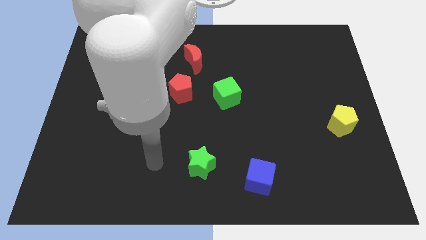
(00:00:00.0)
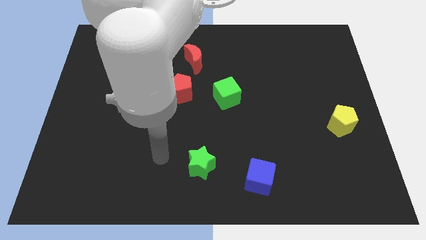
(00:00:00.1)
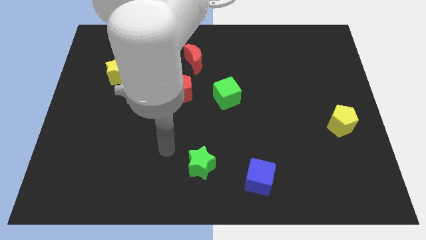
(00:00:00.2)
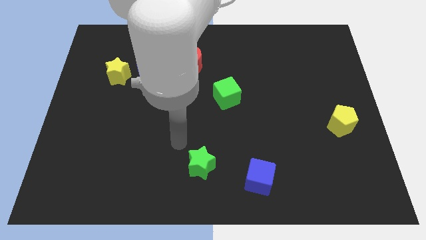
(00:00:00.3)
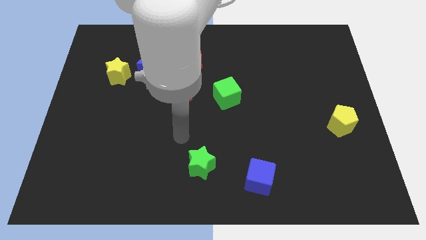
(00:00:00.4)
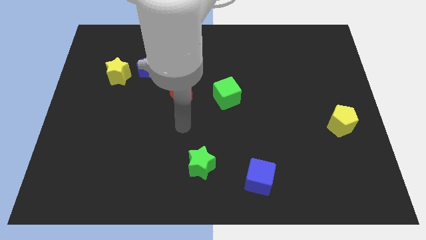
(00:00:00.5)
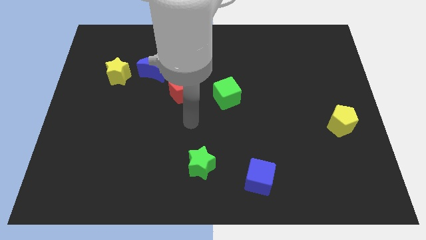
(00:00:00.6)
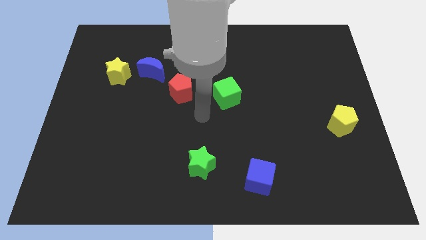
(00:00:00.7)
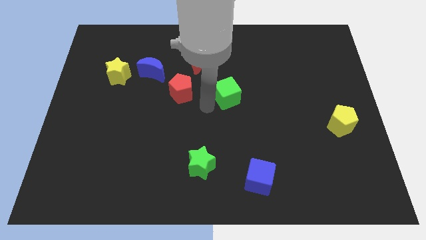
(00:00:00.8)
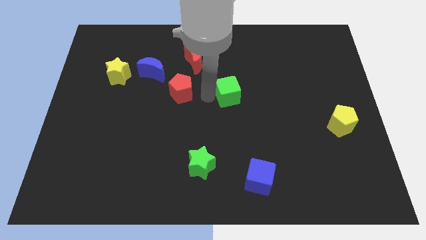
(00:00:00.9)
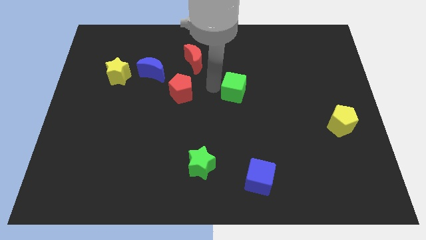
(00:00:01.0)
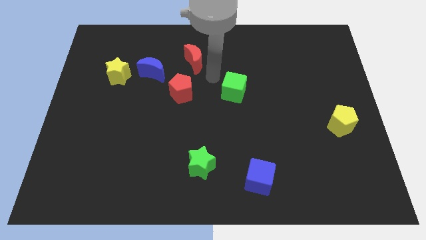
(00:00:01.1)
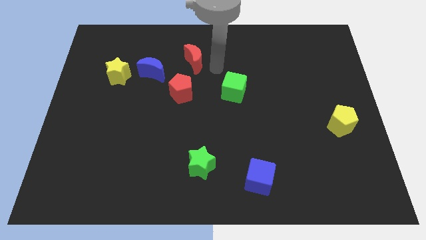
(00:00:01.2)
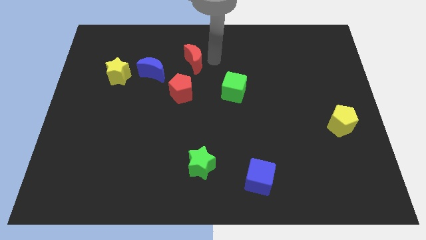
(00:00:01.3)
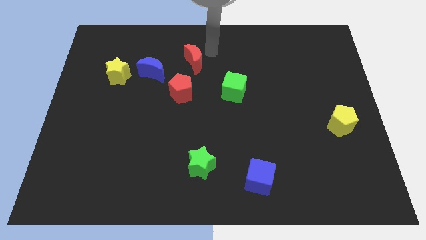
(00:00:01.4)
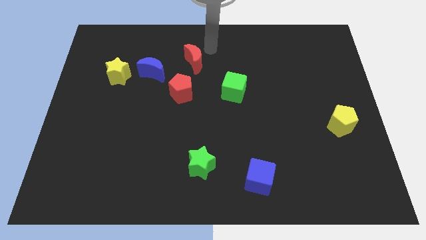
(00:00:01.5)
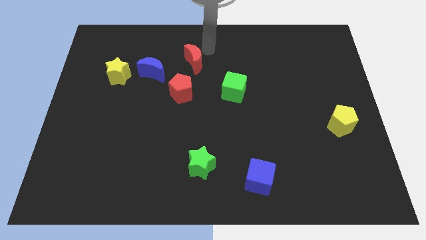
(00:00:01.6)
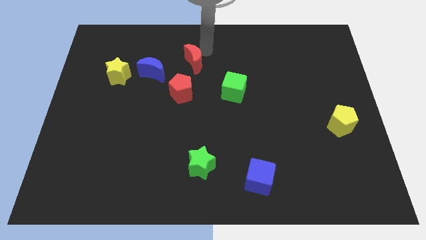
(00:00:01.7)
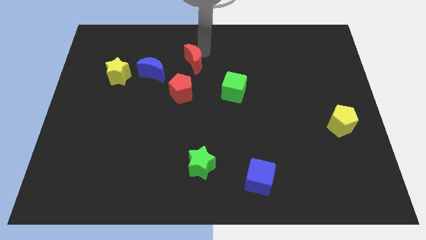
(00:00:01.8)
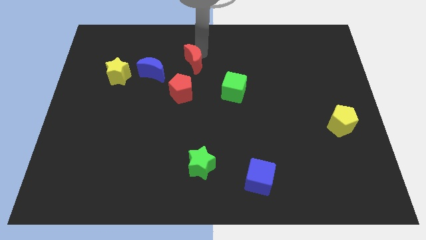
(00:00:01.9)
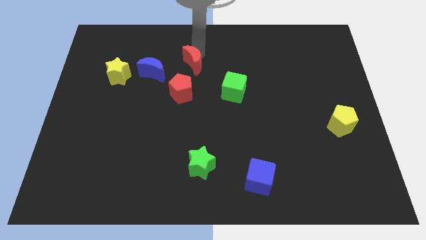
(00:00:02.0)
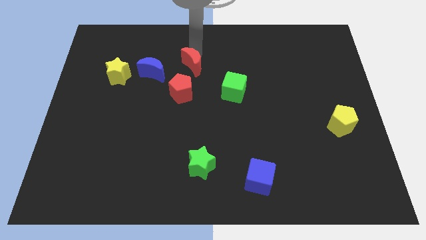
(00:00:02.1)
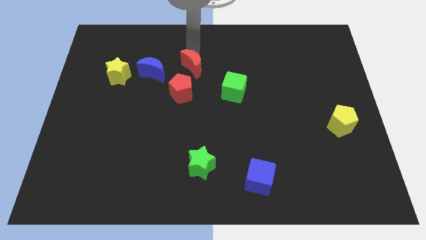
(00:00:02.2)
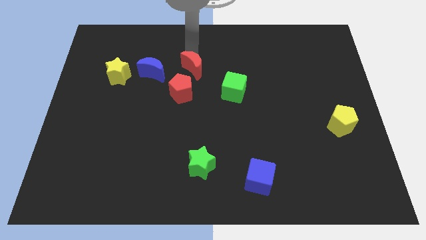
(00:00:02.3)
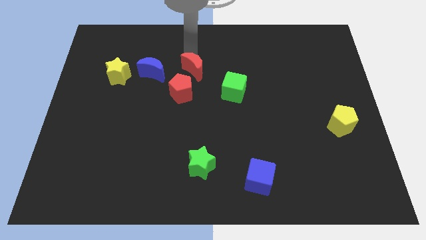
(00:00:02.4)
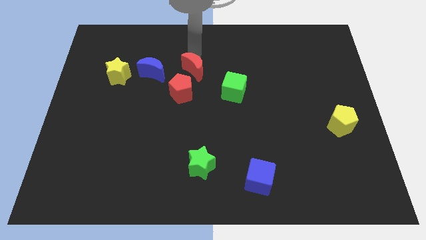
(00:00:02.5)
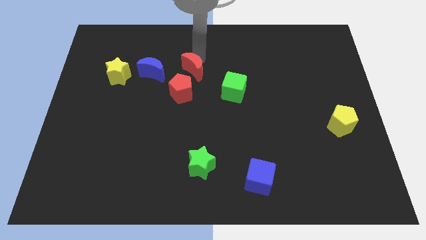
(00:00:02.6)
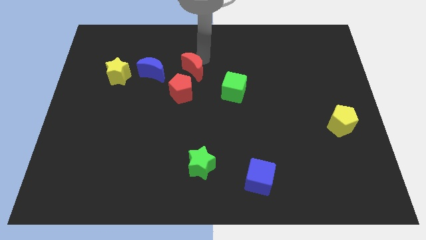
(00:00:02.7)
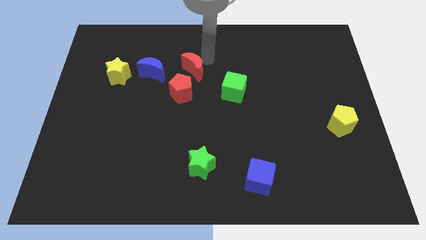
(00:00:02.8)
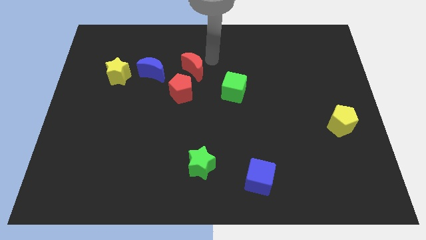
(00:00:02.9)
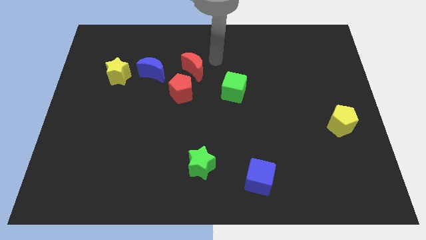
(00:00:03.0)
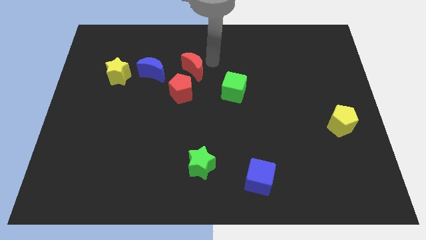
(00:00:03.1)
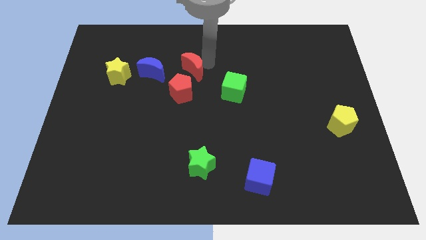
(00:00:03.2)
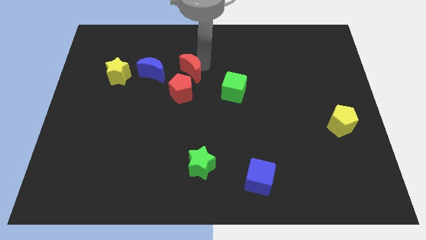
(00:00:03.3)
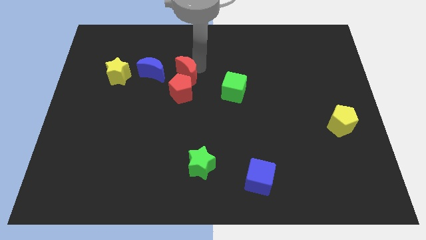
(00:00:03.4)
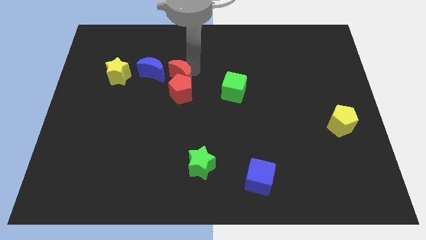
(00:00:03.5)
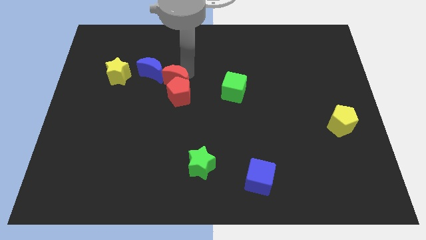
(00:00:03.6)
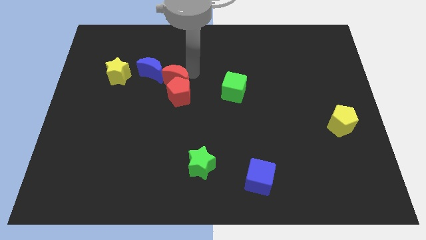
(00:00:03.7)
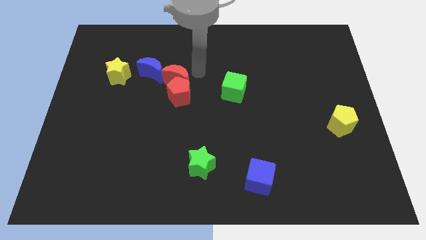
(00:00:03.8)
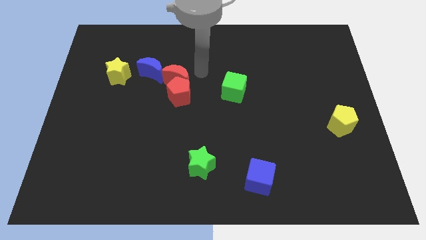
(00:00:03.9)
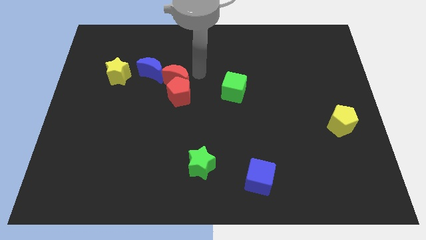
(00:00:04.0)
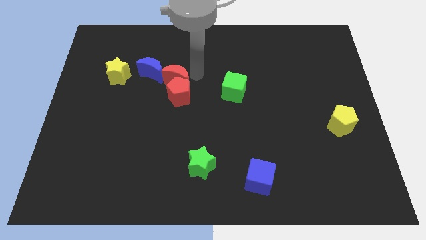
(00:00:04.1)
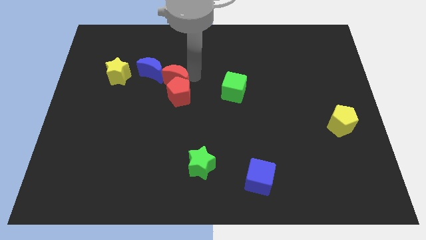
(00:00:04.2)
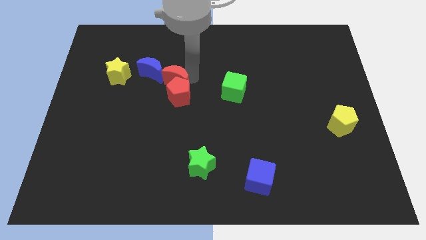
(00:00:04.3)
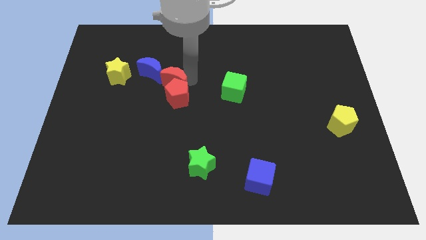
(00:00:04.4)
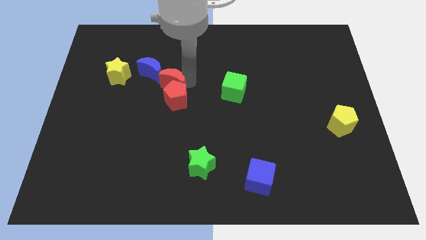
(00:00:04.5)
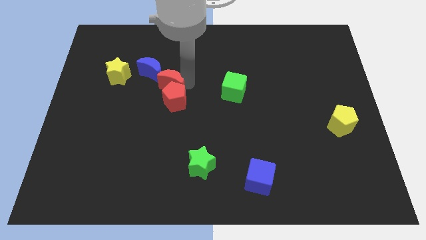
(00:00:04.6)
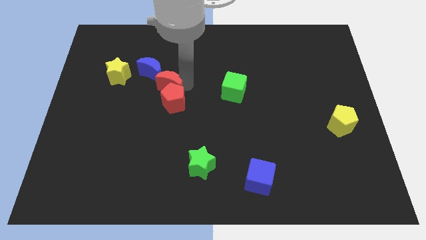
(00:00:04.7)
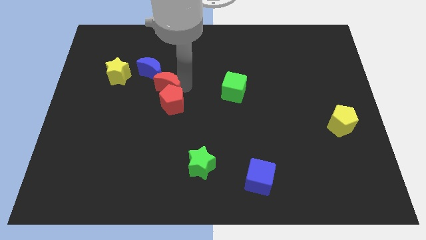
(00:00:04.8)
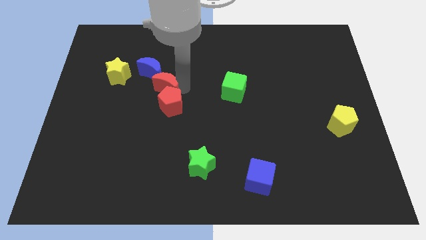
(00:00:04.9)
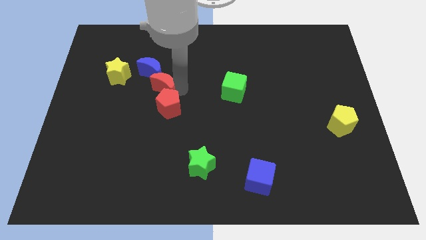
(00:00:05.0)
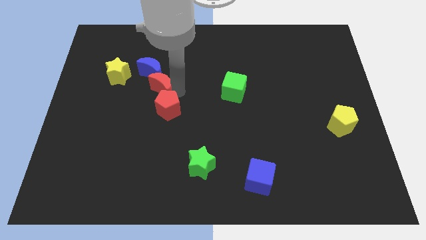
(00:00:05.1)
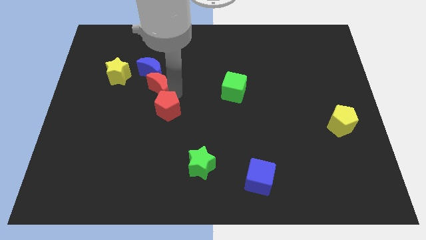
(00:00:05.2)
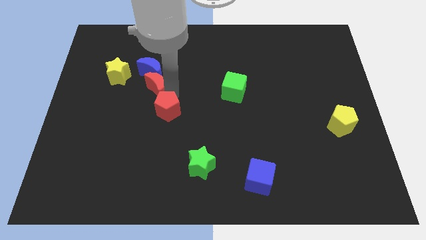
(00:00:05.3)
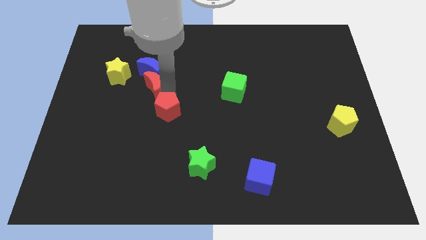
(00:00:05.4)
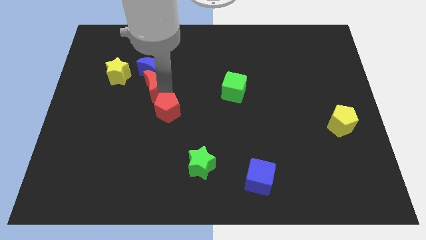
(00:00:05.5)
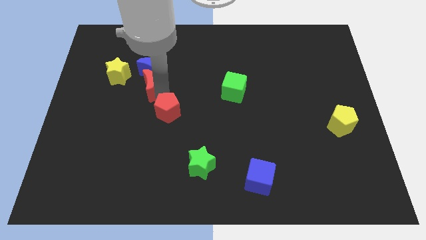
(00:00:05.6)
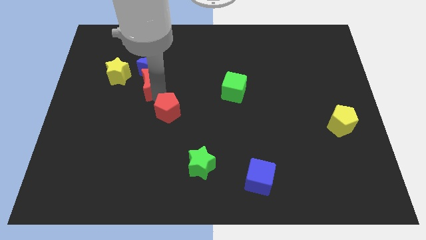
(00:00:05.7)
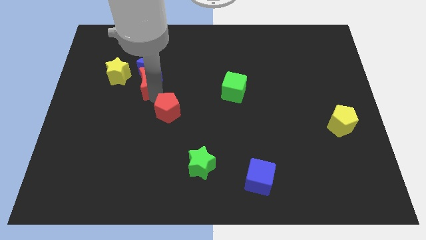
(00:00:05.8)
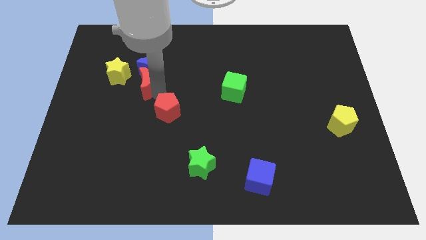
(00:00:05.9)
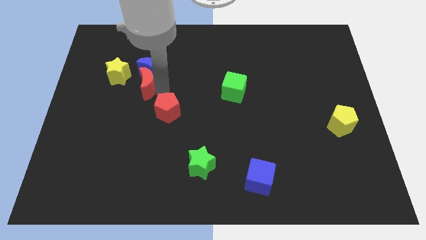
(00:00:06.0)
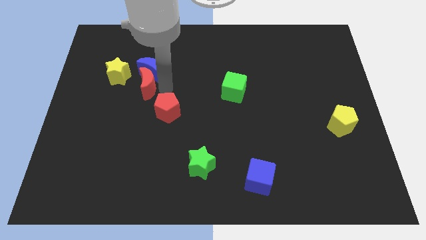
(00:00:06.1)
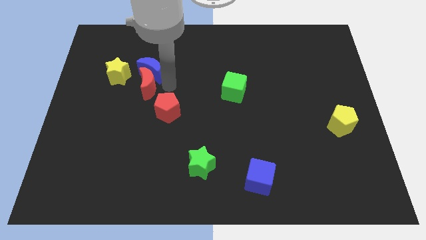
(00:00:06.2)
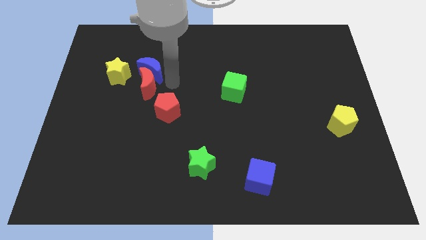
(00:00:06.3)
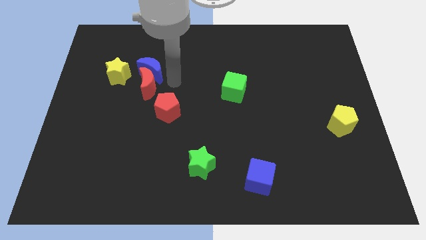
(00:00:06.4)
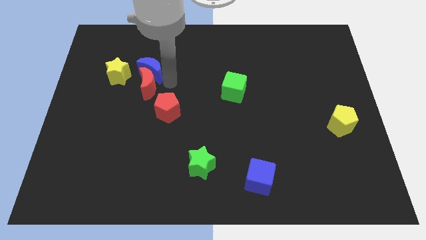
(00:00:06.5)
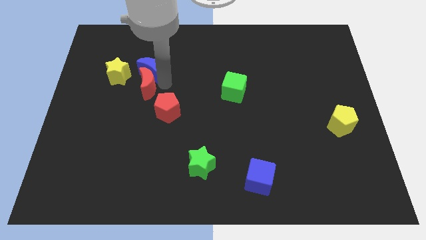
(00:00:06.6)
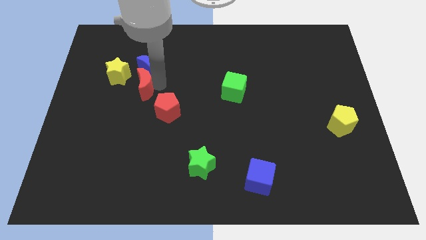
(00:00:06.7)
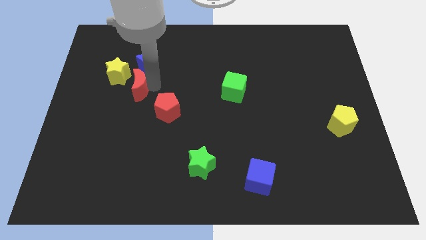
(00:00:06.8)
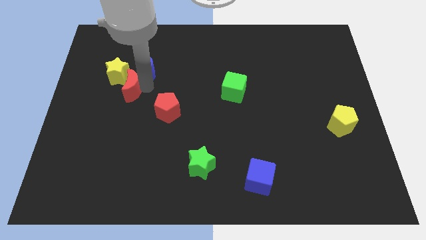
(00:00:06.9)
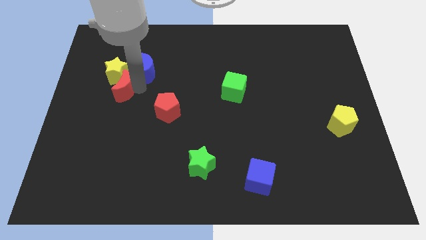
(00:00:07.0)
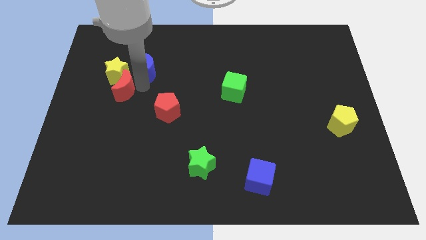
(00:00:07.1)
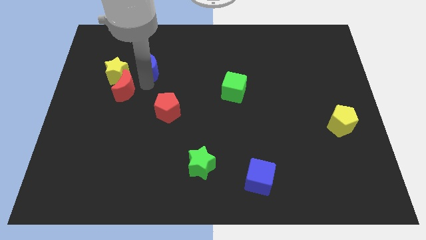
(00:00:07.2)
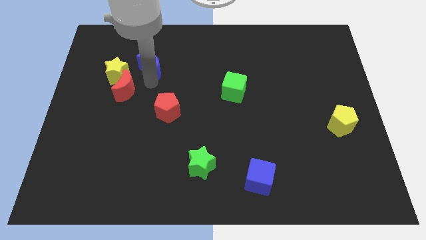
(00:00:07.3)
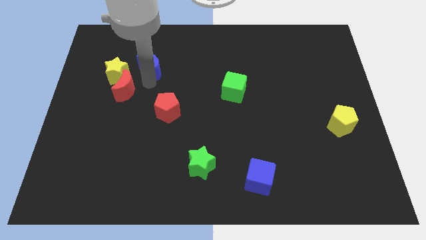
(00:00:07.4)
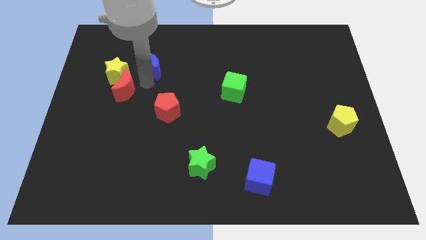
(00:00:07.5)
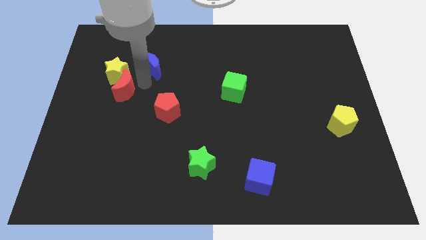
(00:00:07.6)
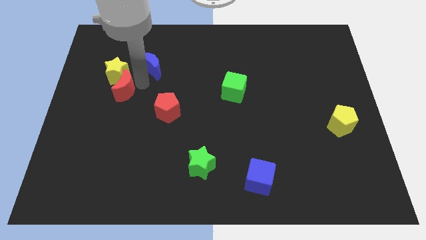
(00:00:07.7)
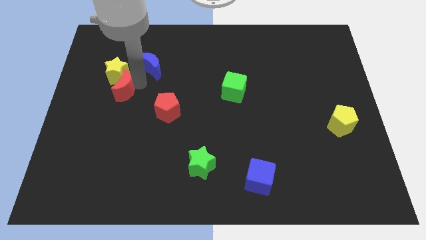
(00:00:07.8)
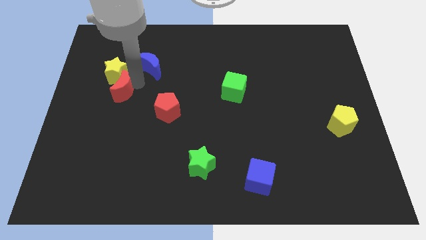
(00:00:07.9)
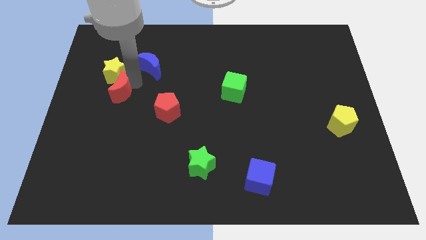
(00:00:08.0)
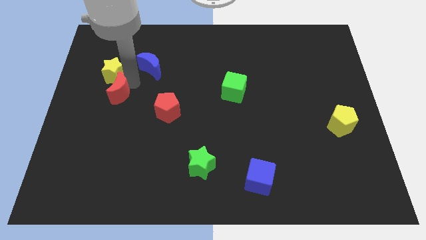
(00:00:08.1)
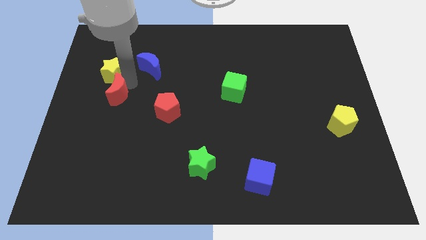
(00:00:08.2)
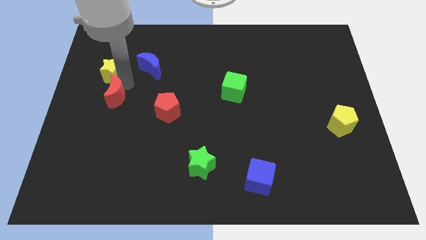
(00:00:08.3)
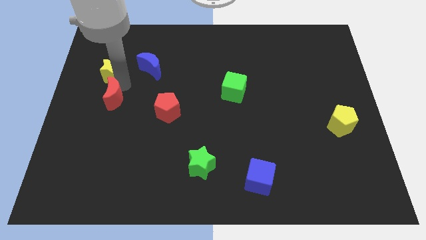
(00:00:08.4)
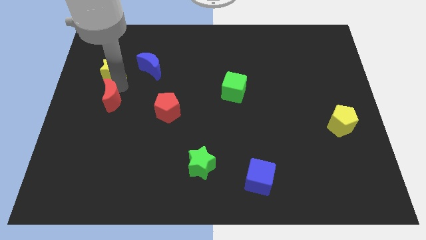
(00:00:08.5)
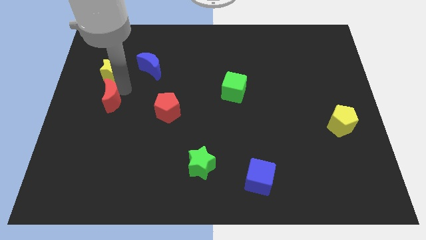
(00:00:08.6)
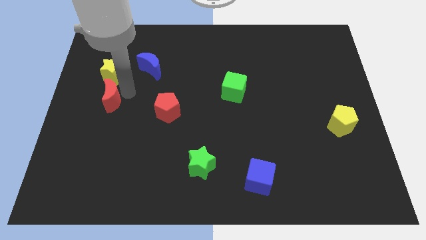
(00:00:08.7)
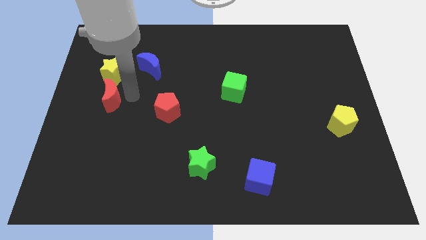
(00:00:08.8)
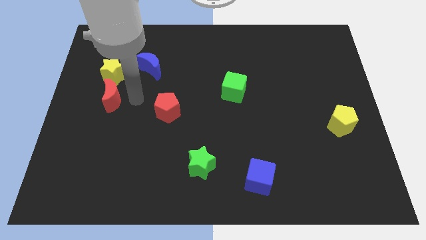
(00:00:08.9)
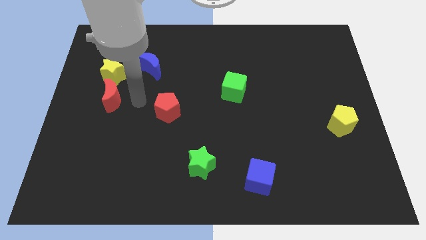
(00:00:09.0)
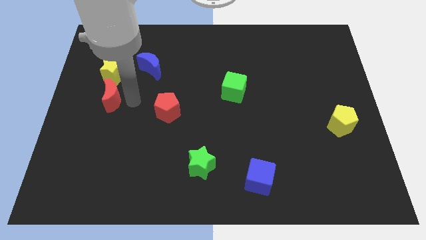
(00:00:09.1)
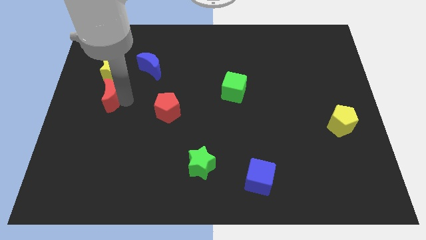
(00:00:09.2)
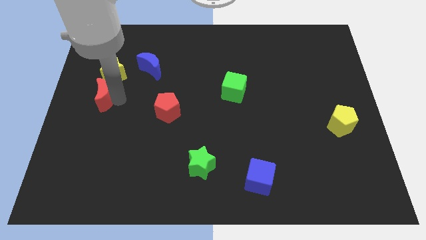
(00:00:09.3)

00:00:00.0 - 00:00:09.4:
push the red moon to the left side
